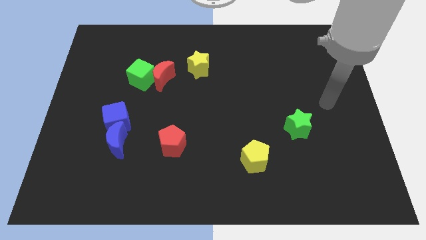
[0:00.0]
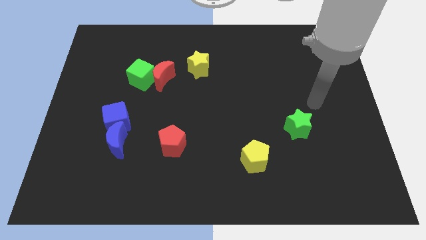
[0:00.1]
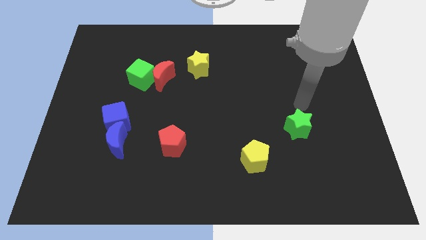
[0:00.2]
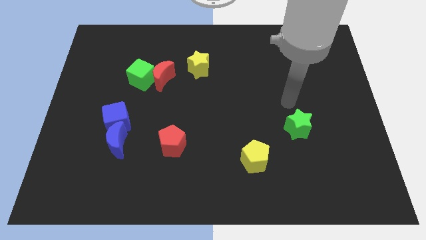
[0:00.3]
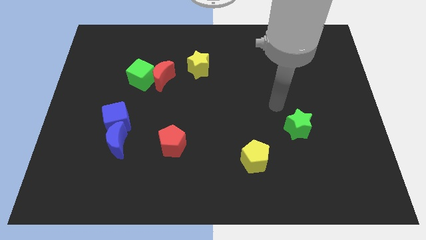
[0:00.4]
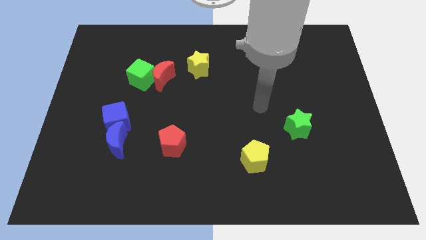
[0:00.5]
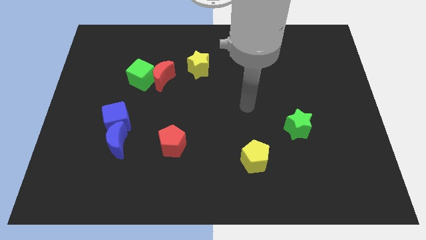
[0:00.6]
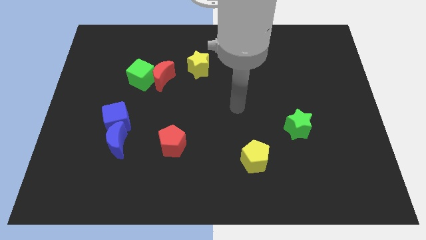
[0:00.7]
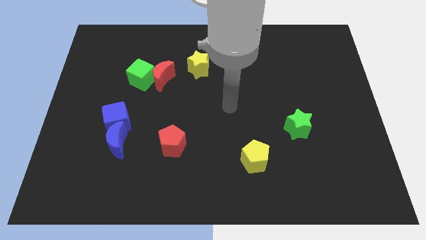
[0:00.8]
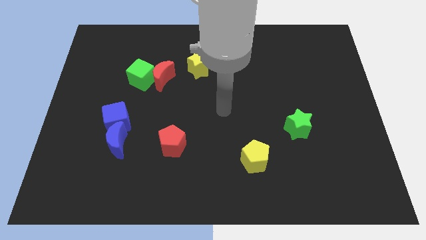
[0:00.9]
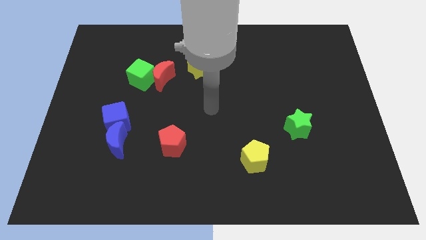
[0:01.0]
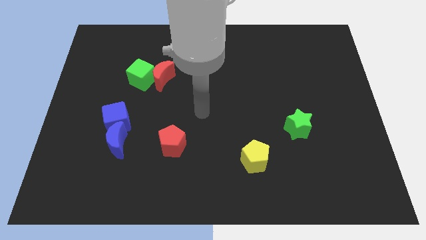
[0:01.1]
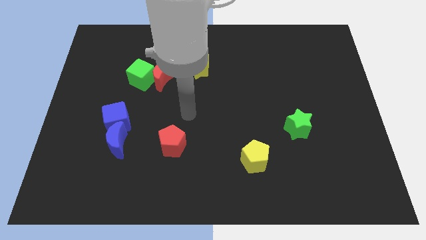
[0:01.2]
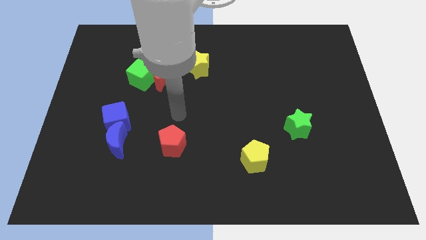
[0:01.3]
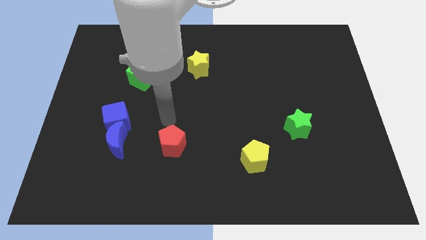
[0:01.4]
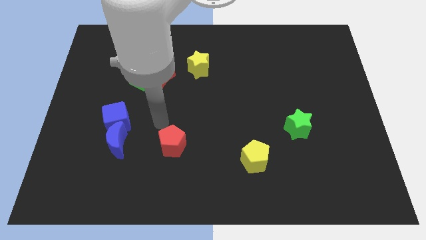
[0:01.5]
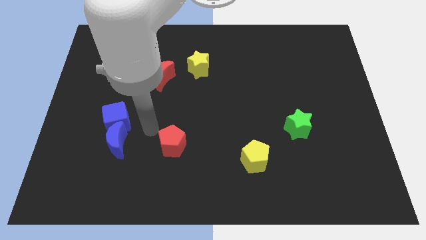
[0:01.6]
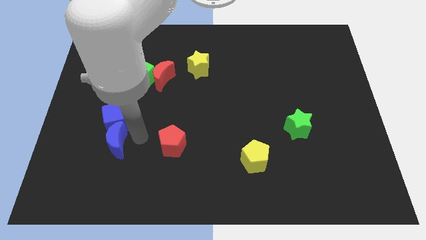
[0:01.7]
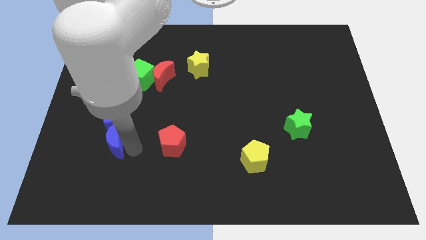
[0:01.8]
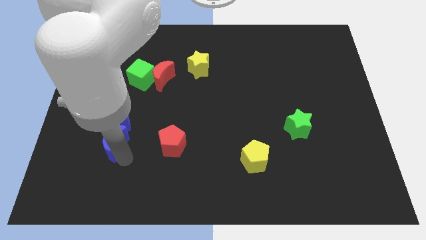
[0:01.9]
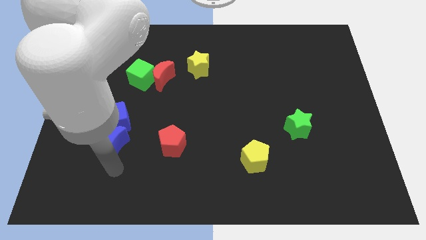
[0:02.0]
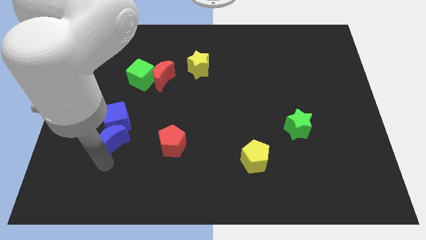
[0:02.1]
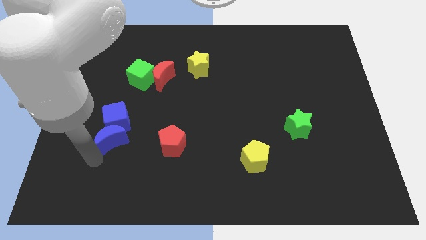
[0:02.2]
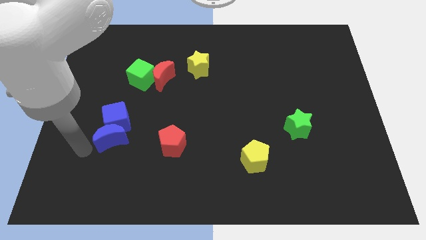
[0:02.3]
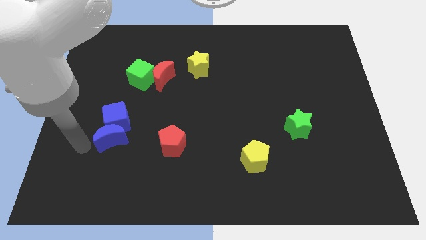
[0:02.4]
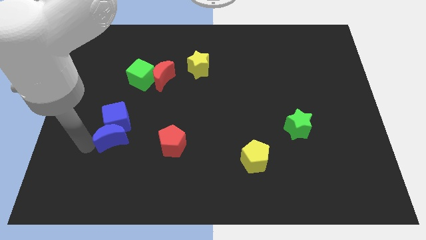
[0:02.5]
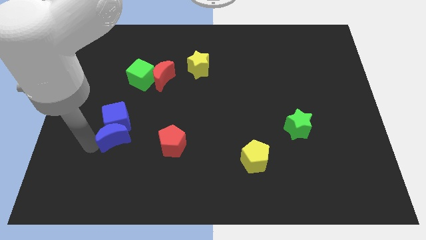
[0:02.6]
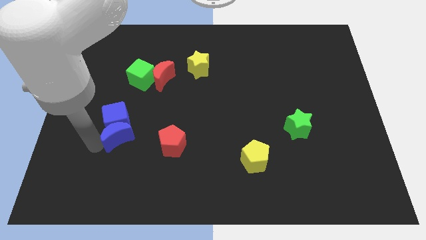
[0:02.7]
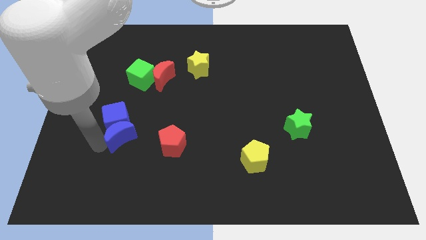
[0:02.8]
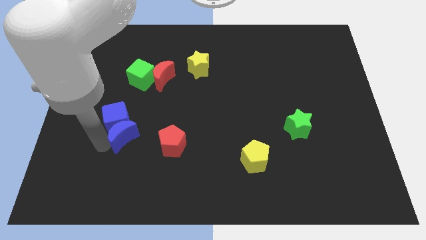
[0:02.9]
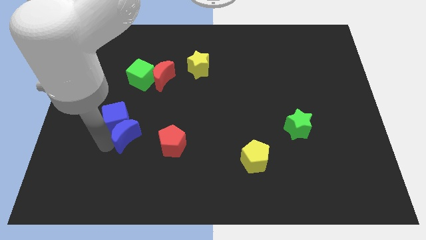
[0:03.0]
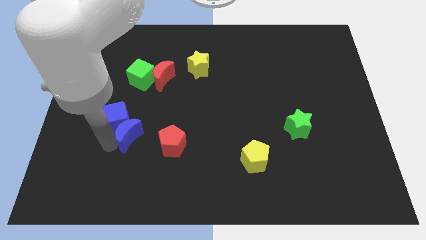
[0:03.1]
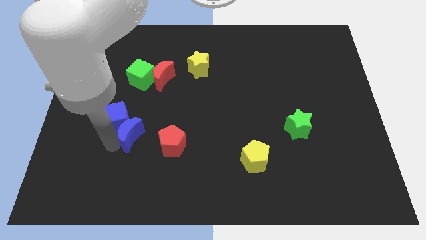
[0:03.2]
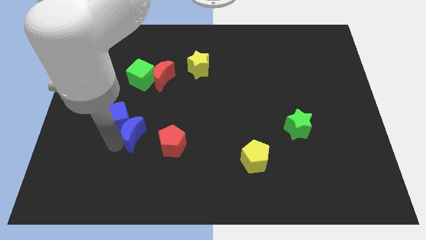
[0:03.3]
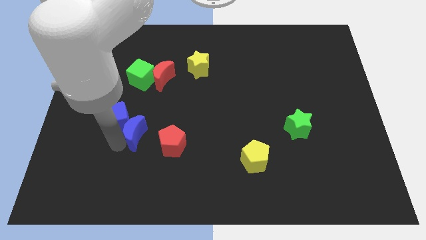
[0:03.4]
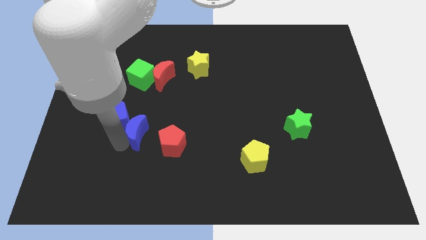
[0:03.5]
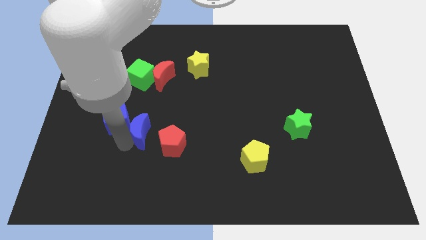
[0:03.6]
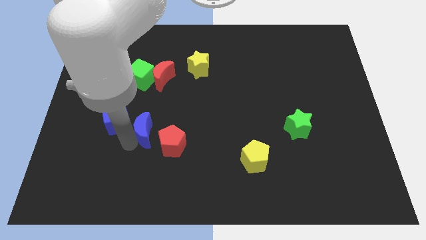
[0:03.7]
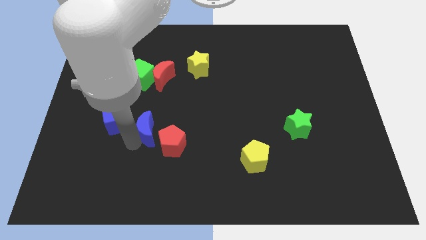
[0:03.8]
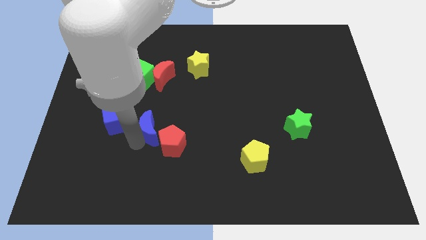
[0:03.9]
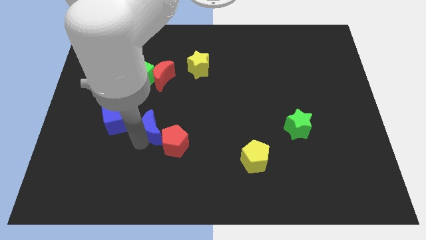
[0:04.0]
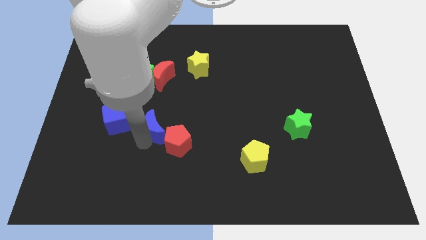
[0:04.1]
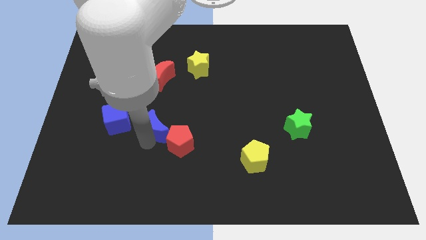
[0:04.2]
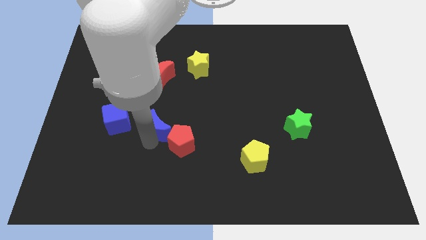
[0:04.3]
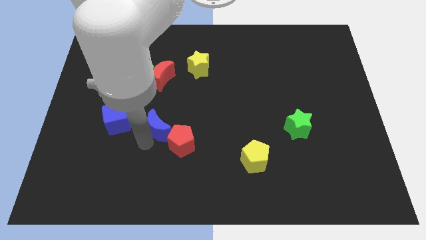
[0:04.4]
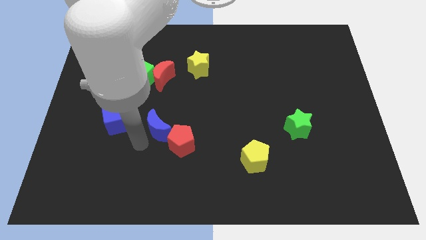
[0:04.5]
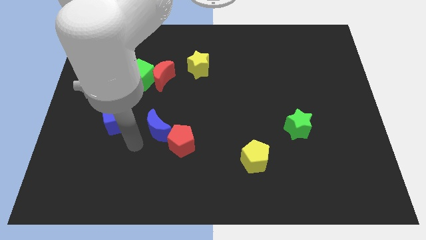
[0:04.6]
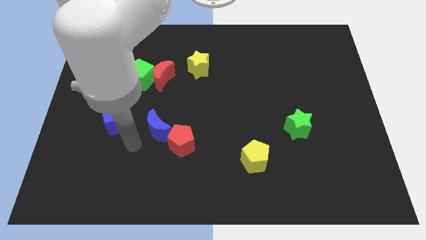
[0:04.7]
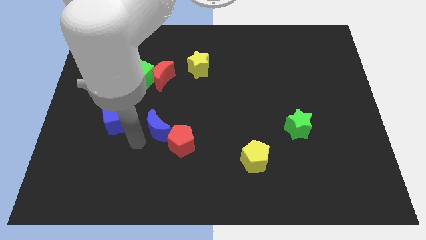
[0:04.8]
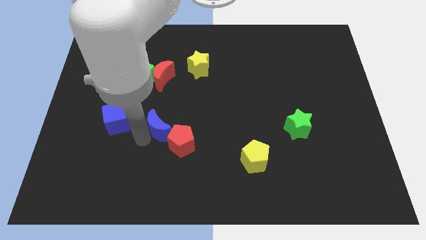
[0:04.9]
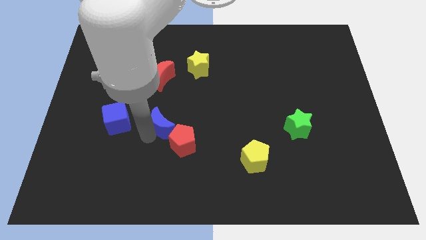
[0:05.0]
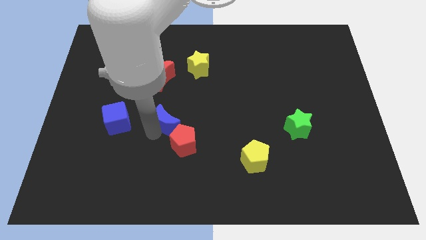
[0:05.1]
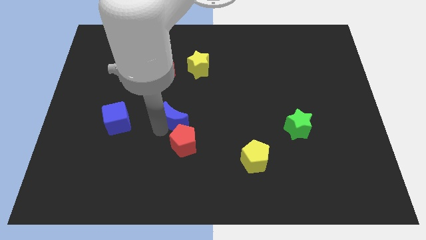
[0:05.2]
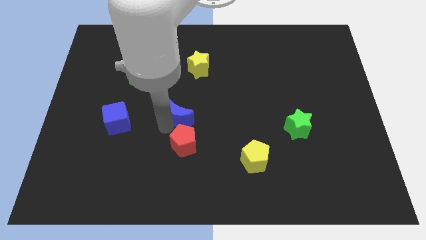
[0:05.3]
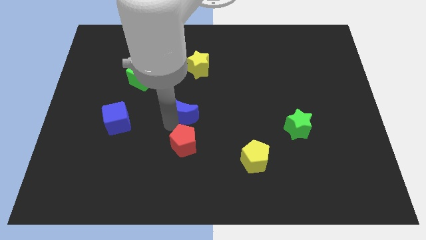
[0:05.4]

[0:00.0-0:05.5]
push the blue moon below the yellow star

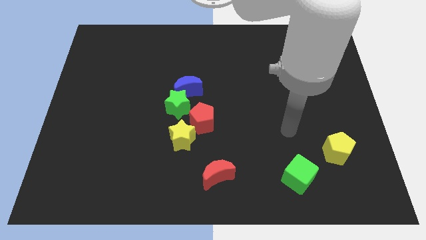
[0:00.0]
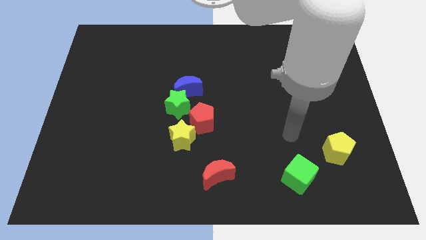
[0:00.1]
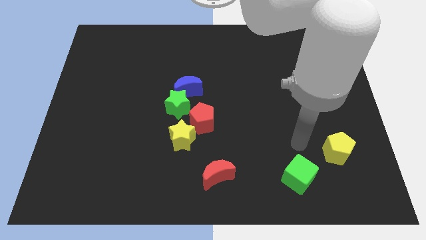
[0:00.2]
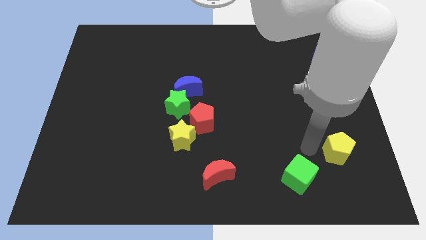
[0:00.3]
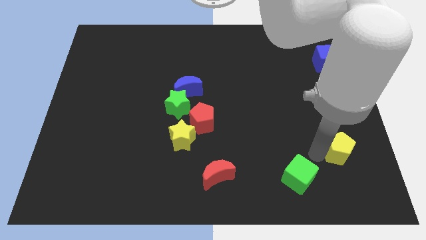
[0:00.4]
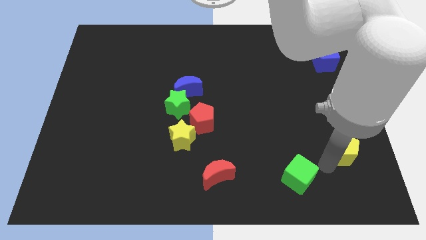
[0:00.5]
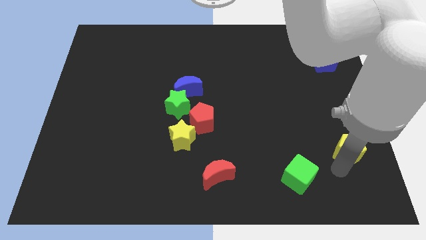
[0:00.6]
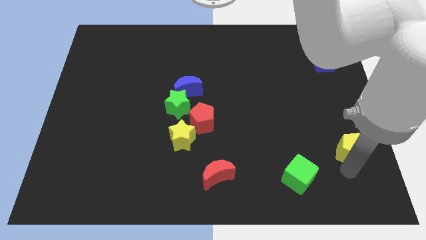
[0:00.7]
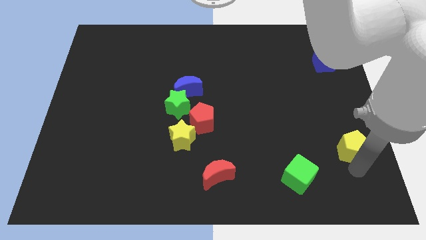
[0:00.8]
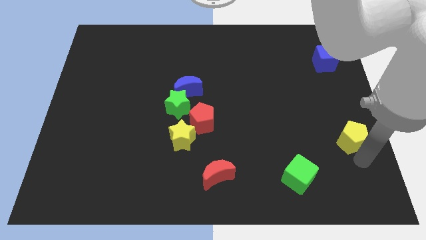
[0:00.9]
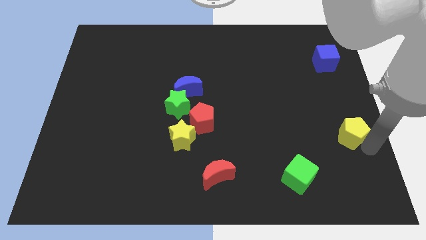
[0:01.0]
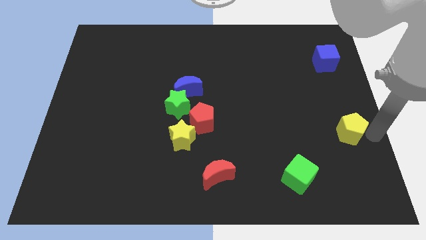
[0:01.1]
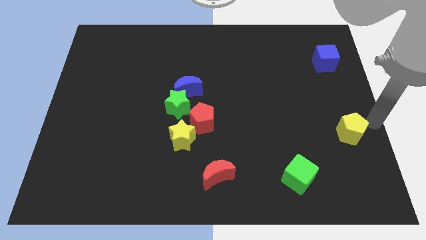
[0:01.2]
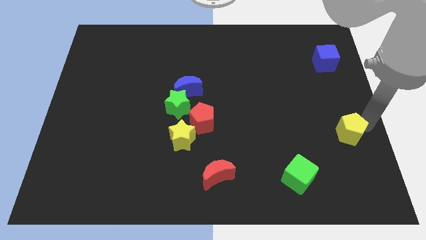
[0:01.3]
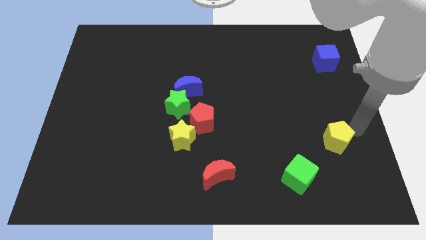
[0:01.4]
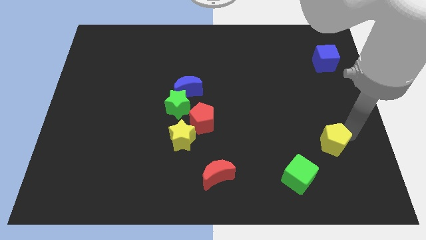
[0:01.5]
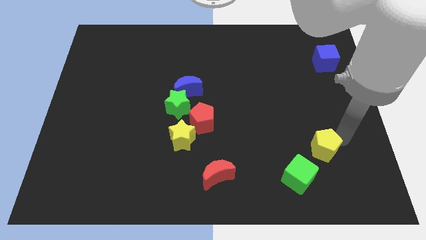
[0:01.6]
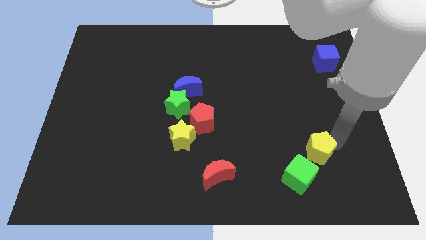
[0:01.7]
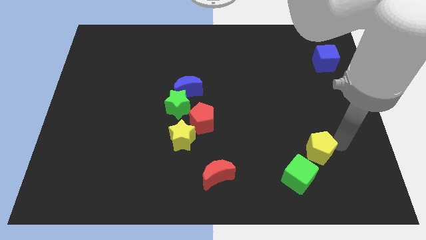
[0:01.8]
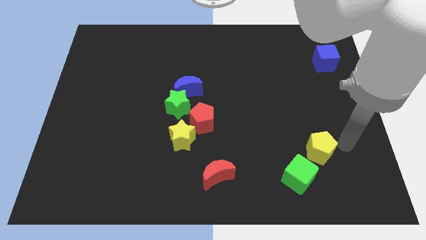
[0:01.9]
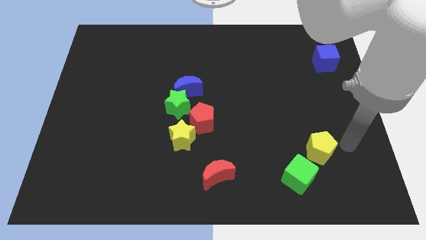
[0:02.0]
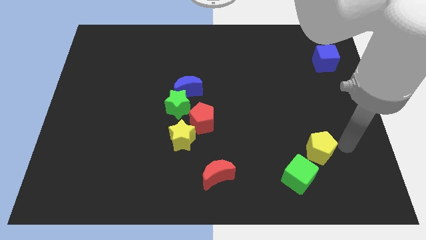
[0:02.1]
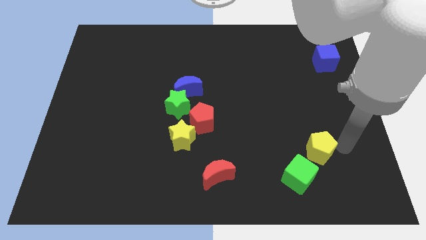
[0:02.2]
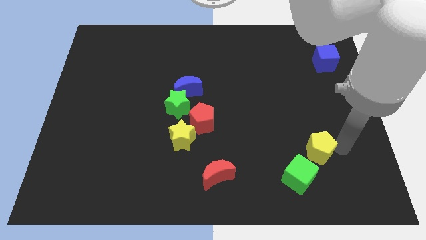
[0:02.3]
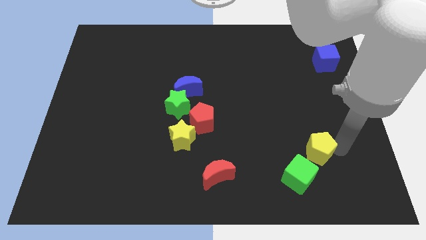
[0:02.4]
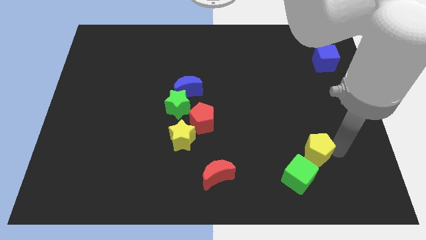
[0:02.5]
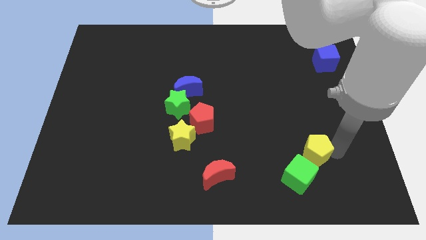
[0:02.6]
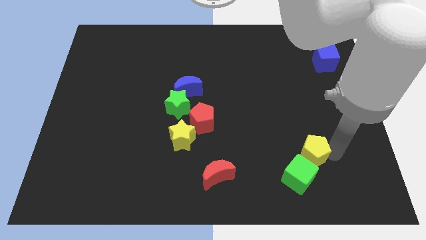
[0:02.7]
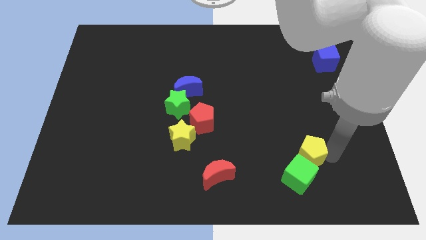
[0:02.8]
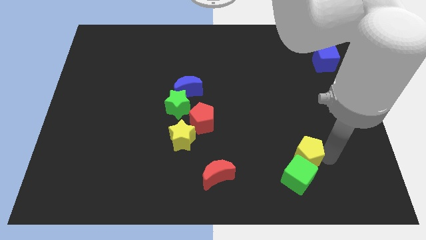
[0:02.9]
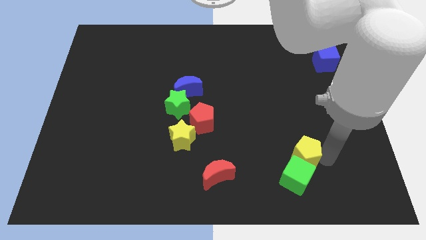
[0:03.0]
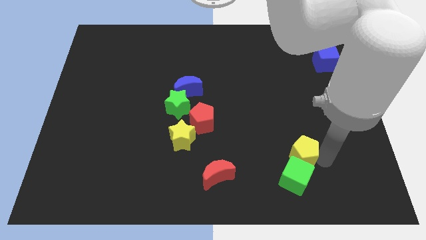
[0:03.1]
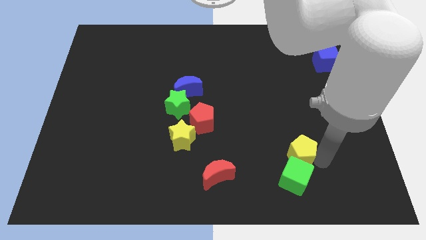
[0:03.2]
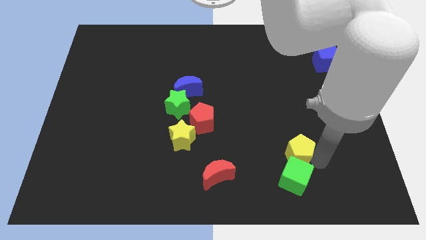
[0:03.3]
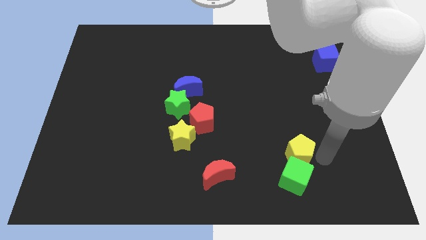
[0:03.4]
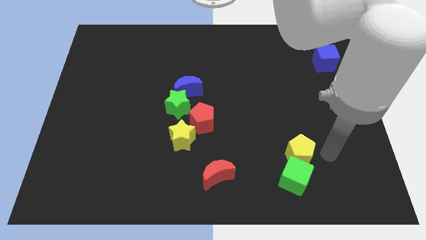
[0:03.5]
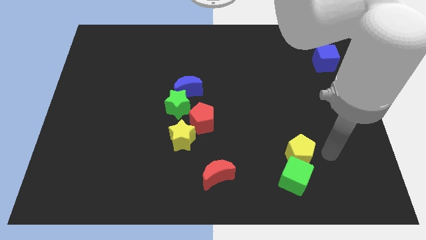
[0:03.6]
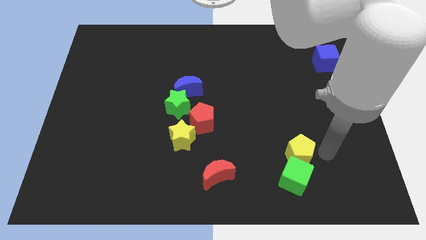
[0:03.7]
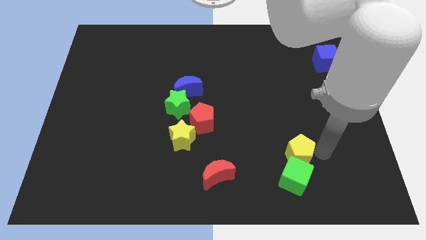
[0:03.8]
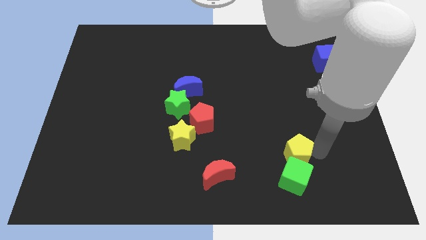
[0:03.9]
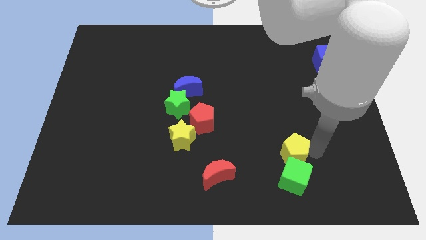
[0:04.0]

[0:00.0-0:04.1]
put the yellow pentagon to the top left side of the green cube
